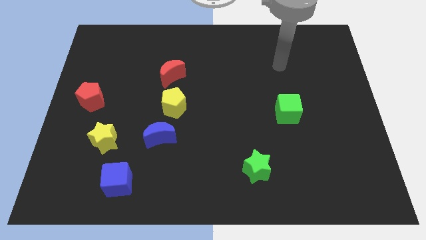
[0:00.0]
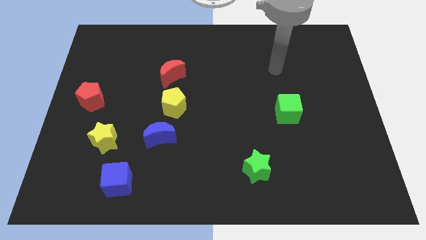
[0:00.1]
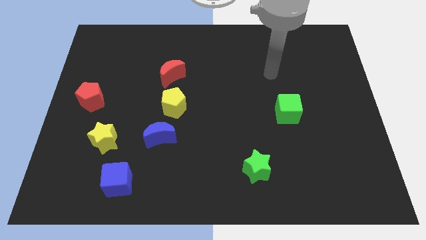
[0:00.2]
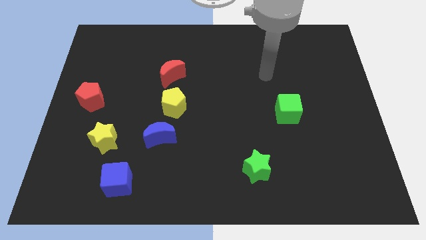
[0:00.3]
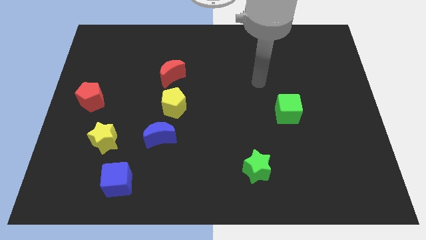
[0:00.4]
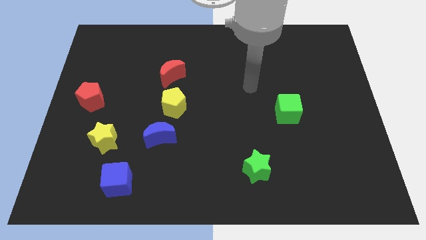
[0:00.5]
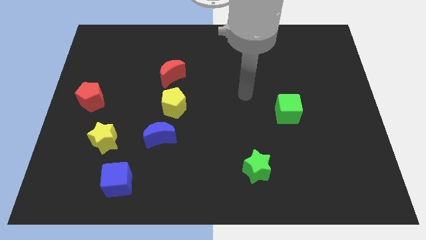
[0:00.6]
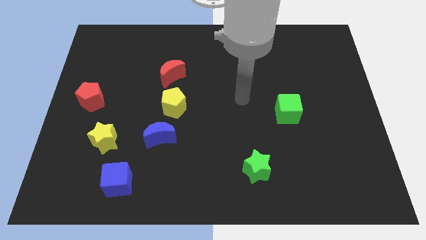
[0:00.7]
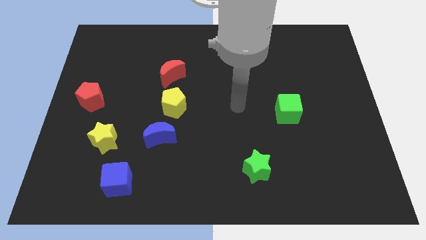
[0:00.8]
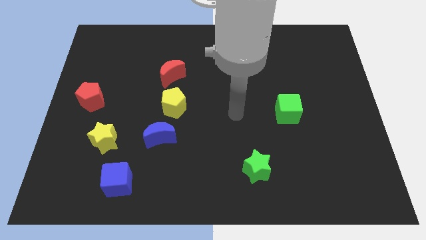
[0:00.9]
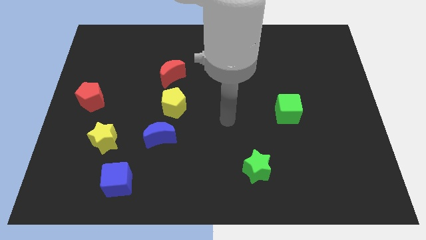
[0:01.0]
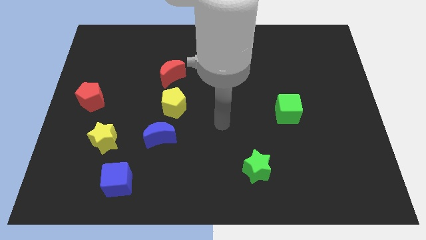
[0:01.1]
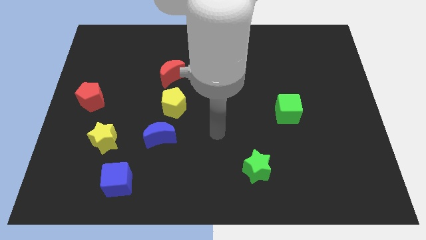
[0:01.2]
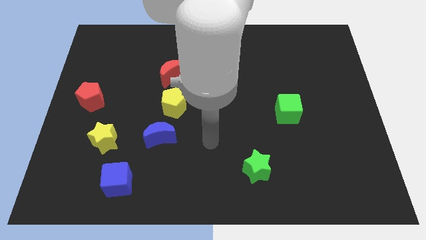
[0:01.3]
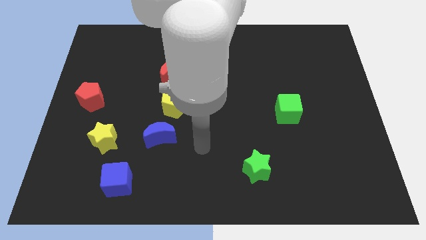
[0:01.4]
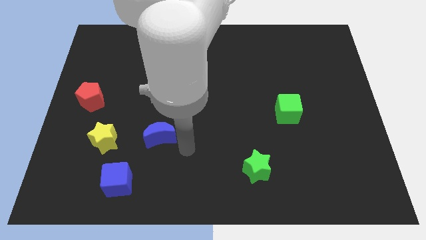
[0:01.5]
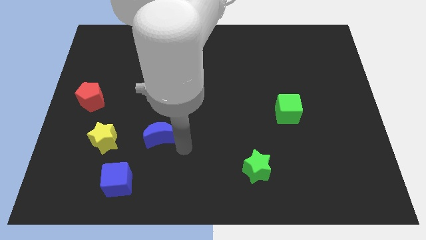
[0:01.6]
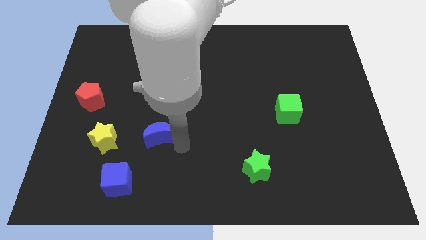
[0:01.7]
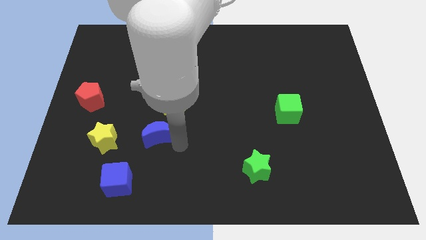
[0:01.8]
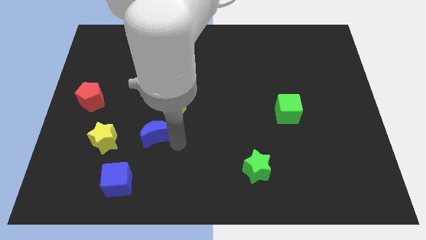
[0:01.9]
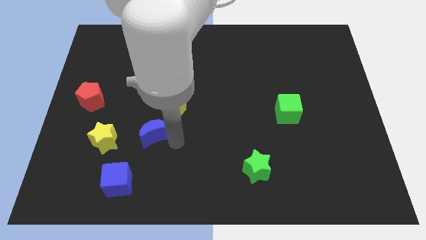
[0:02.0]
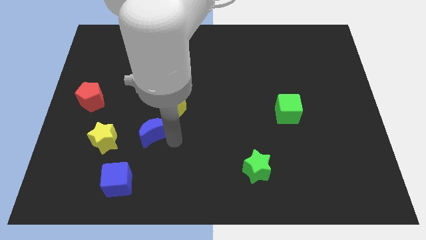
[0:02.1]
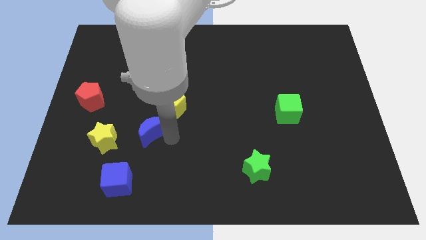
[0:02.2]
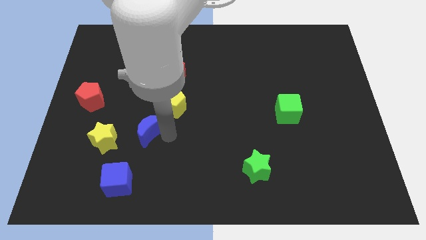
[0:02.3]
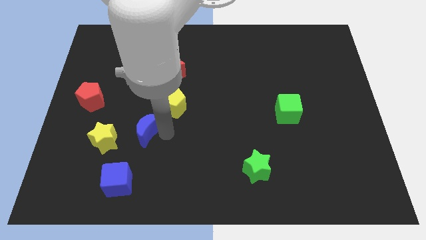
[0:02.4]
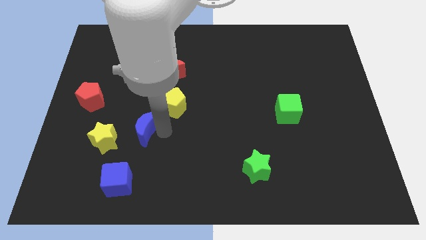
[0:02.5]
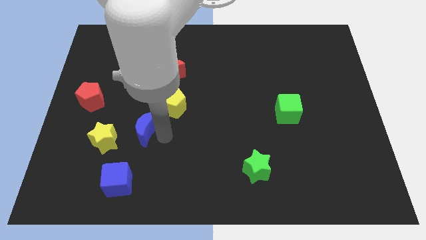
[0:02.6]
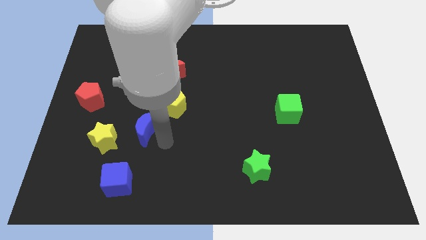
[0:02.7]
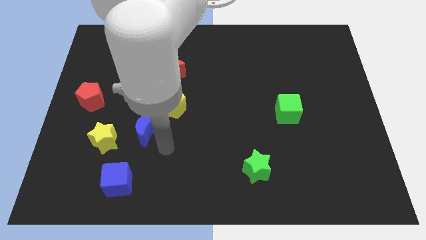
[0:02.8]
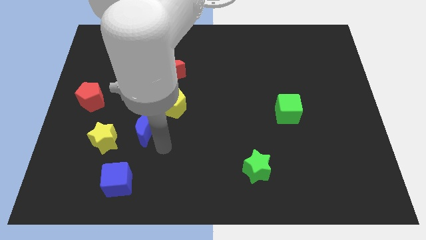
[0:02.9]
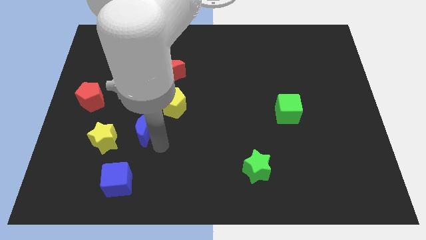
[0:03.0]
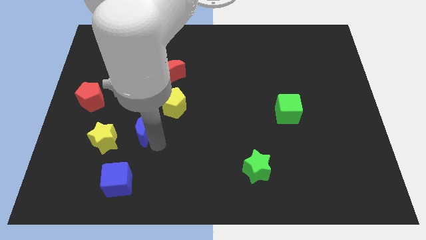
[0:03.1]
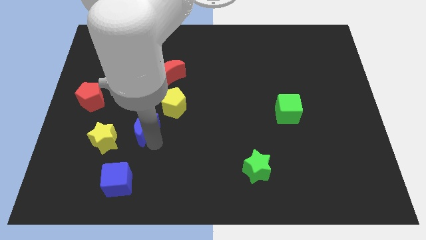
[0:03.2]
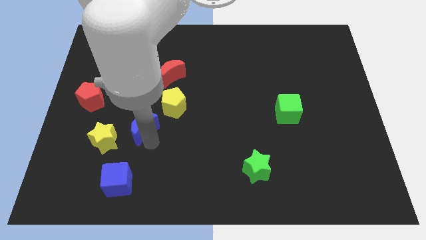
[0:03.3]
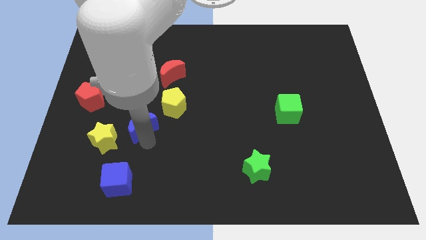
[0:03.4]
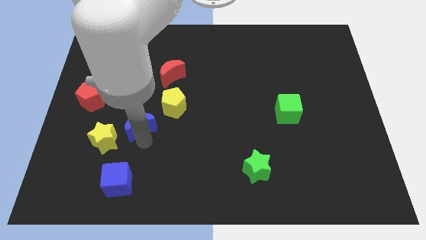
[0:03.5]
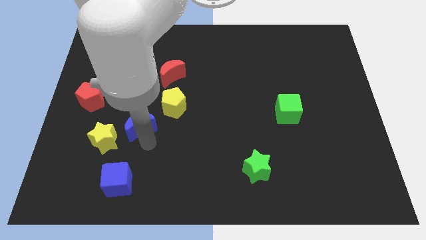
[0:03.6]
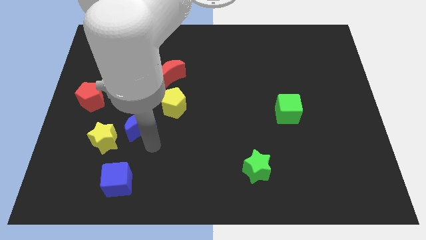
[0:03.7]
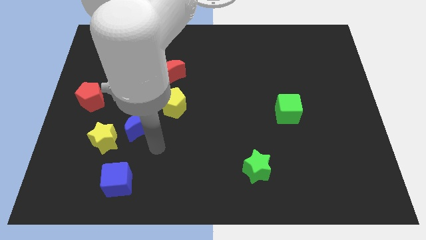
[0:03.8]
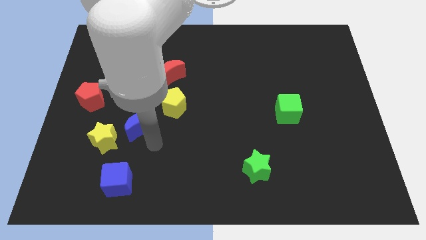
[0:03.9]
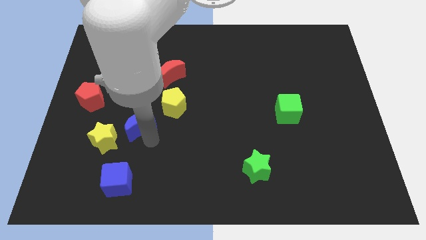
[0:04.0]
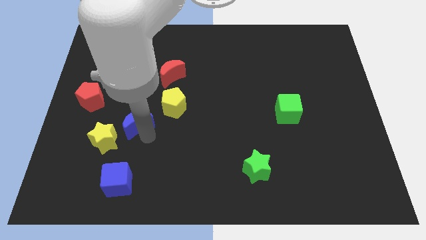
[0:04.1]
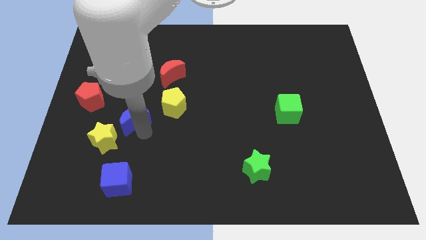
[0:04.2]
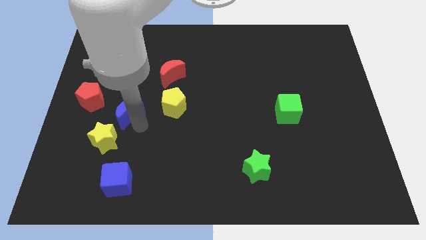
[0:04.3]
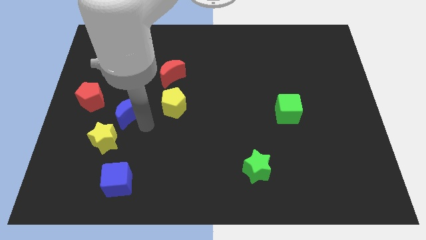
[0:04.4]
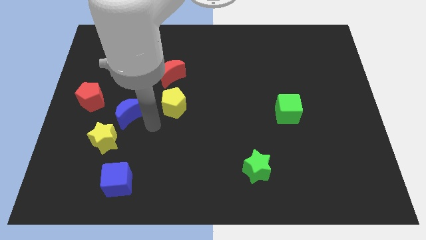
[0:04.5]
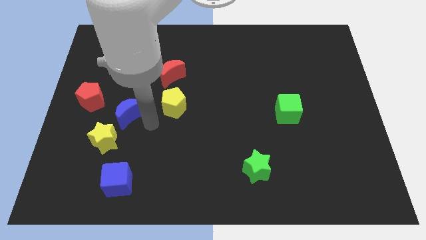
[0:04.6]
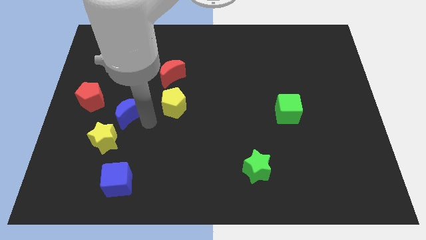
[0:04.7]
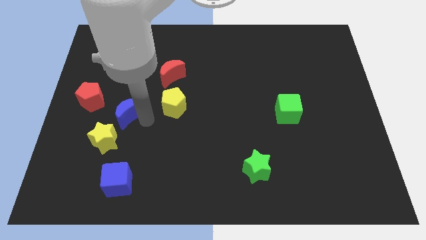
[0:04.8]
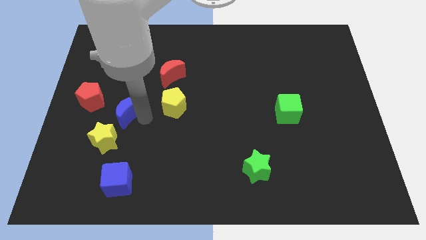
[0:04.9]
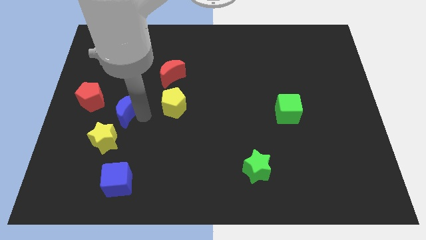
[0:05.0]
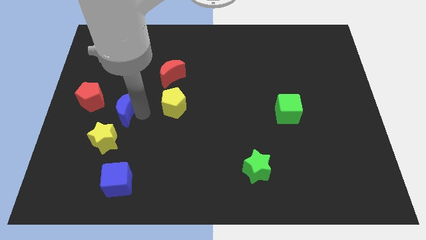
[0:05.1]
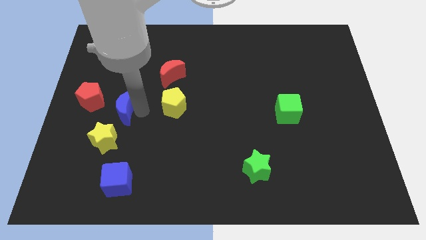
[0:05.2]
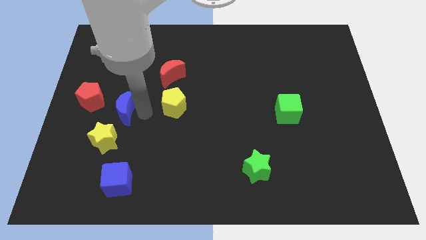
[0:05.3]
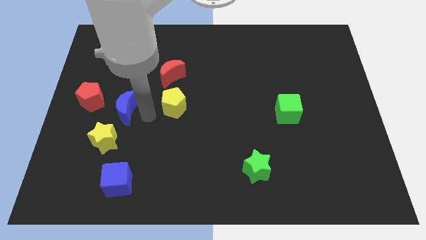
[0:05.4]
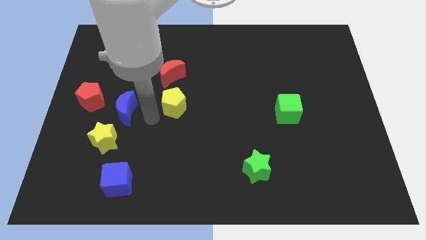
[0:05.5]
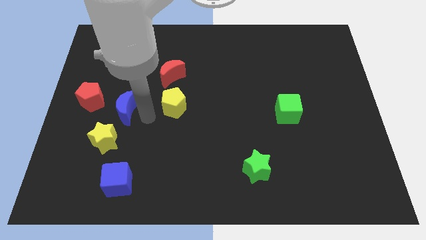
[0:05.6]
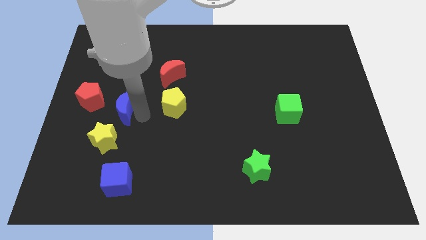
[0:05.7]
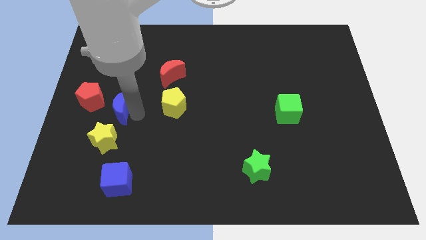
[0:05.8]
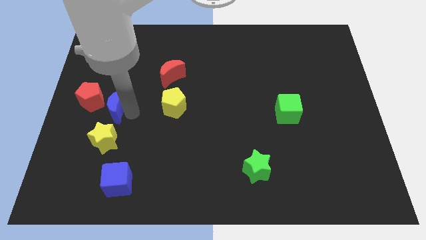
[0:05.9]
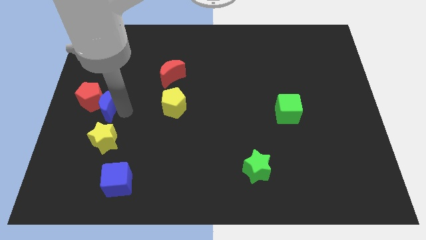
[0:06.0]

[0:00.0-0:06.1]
slide the blue moon towards the red pentagon

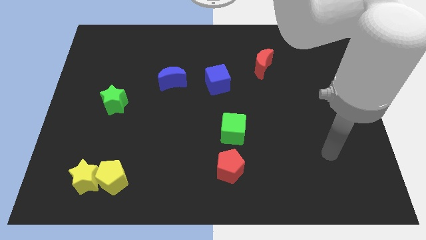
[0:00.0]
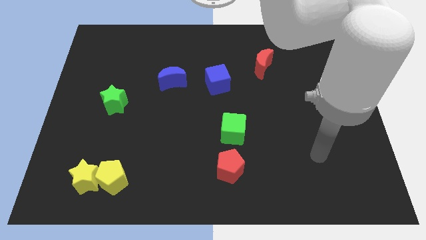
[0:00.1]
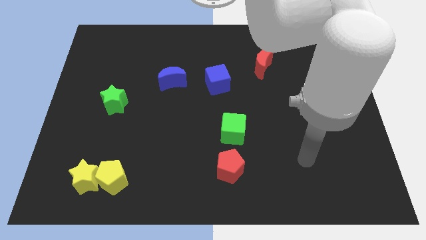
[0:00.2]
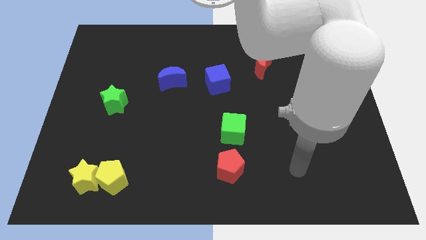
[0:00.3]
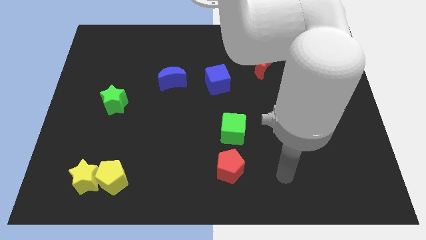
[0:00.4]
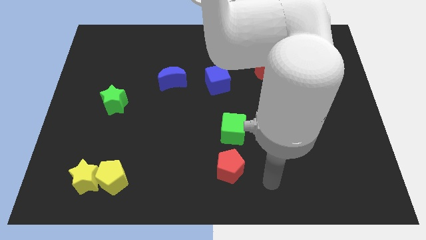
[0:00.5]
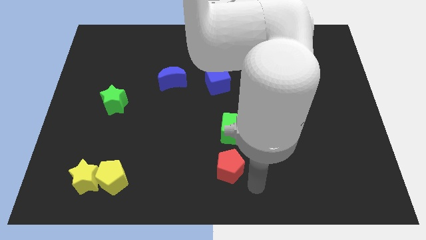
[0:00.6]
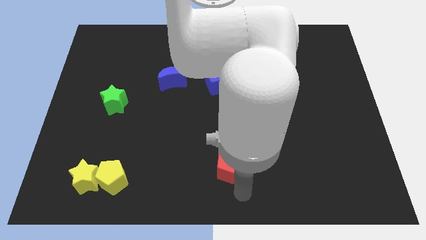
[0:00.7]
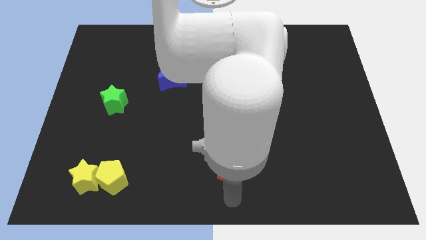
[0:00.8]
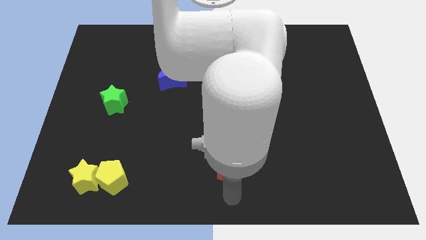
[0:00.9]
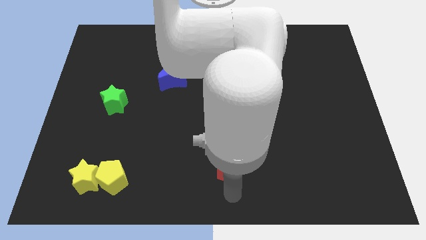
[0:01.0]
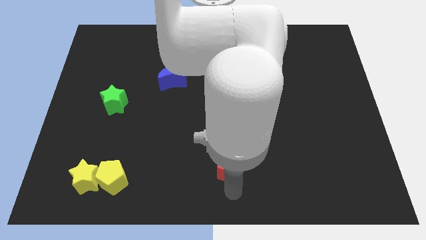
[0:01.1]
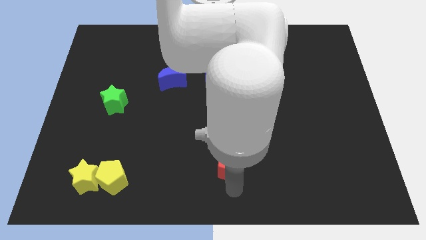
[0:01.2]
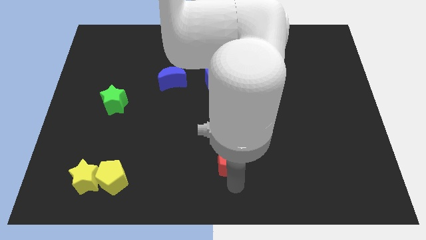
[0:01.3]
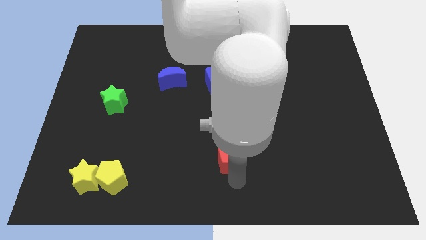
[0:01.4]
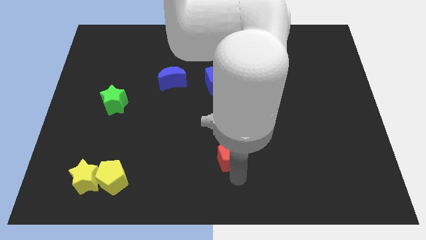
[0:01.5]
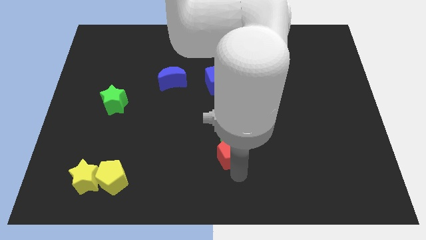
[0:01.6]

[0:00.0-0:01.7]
move the red pentagon next to the green cube
